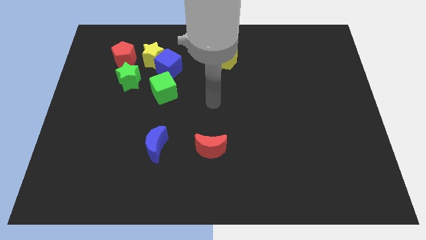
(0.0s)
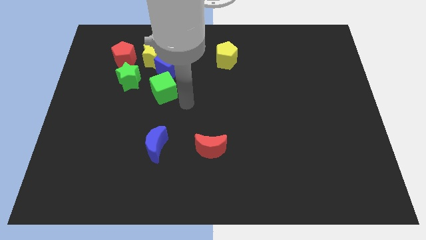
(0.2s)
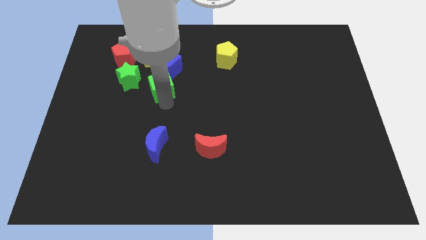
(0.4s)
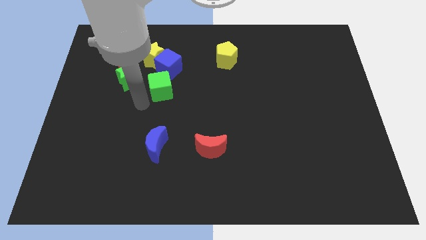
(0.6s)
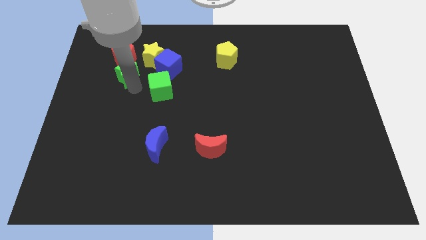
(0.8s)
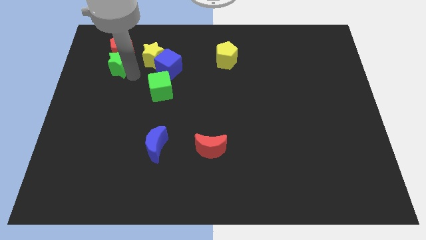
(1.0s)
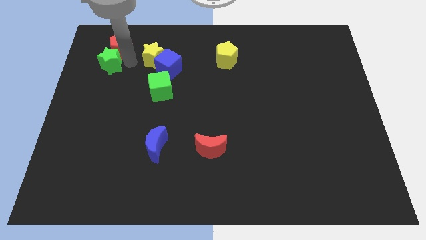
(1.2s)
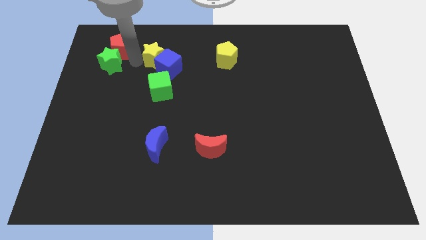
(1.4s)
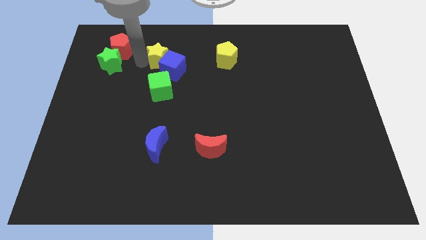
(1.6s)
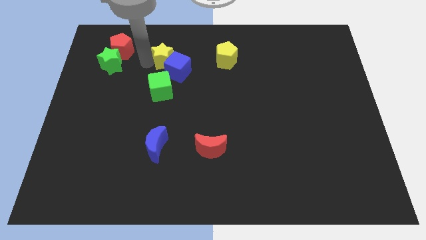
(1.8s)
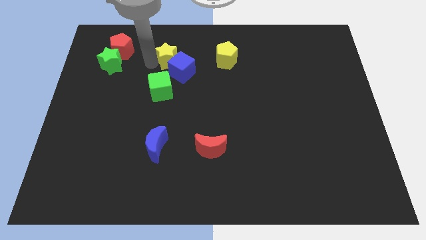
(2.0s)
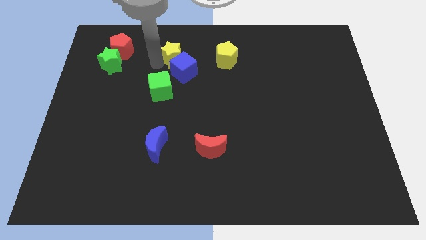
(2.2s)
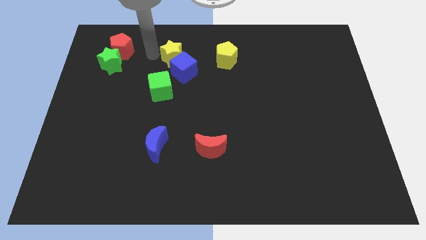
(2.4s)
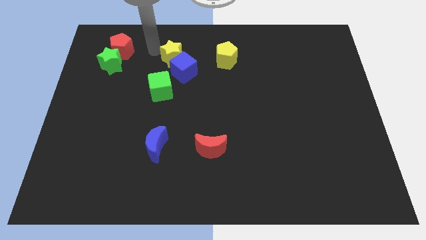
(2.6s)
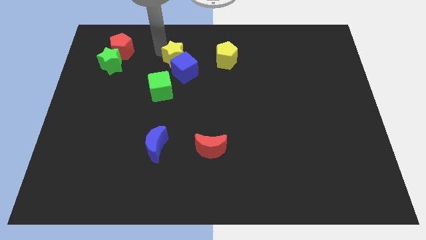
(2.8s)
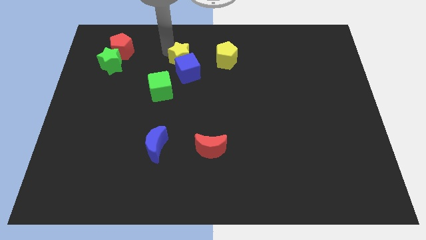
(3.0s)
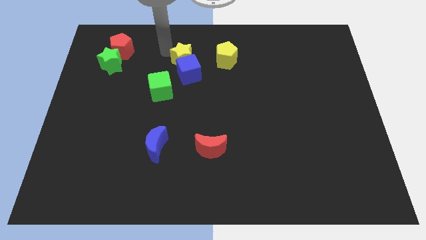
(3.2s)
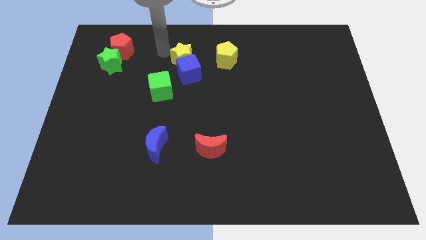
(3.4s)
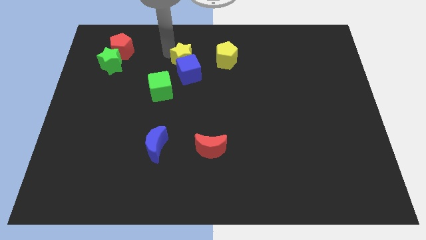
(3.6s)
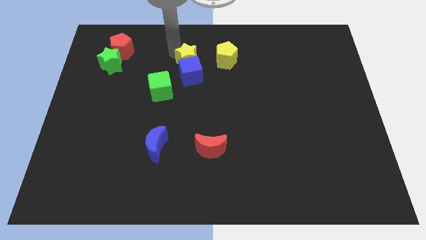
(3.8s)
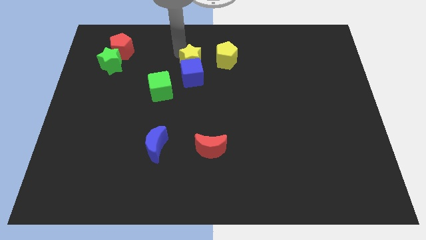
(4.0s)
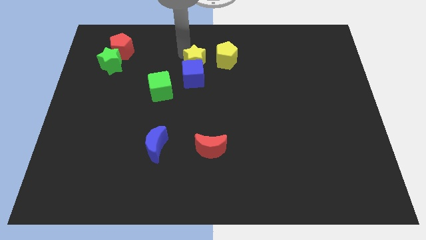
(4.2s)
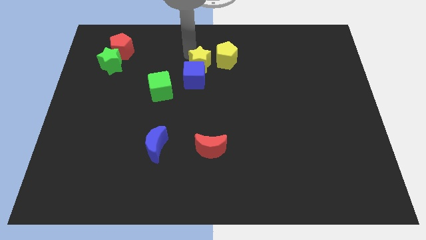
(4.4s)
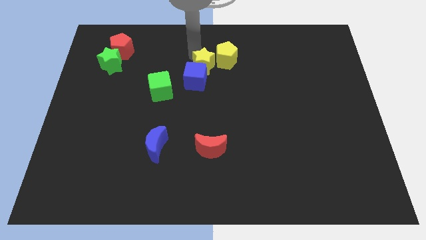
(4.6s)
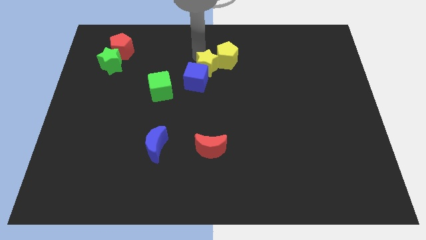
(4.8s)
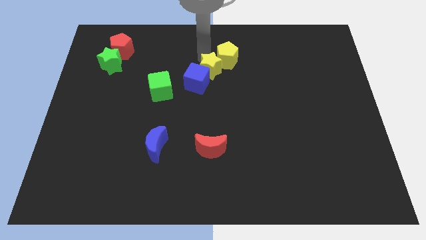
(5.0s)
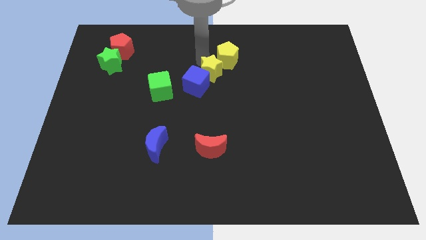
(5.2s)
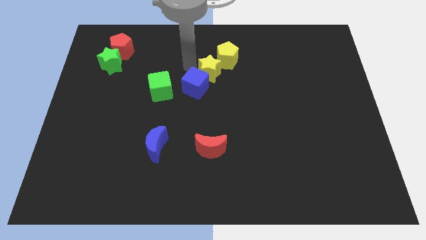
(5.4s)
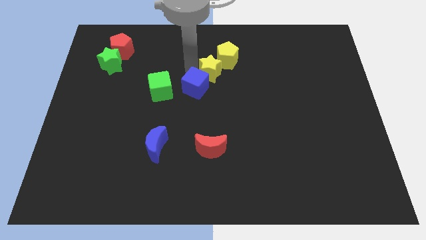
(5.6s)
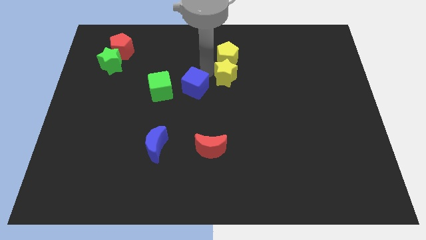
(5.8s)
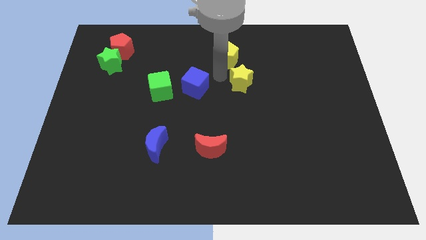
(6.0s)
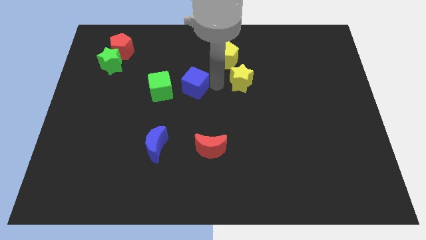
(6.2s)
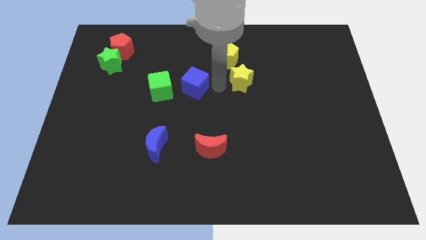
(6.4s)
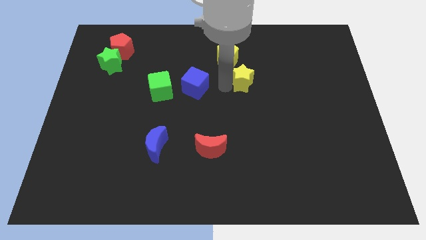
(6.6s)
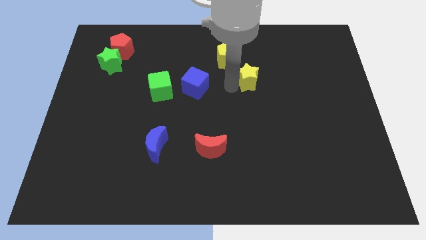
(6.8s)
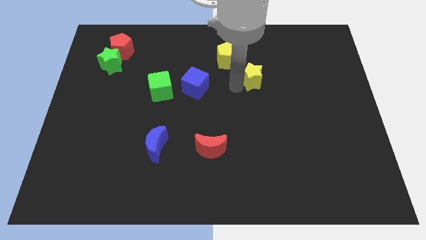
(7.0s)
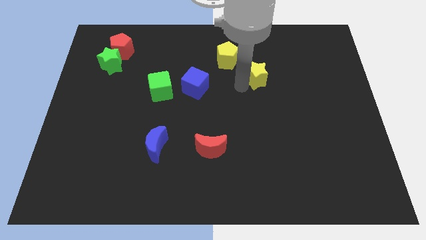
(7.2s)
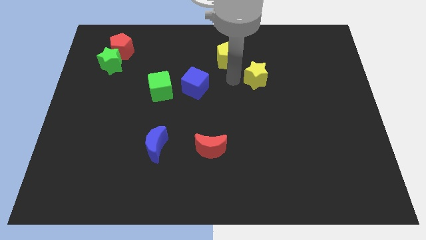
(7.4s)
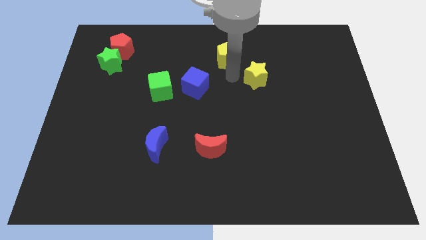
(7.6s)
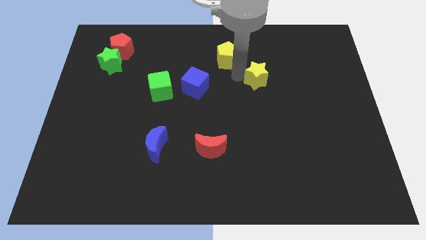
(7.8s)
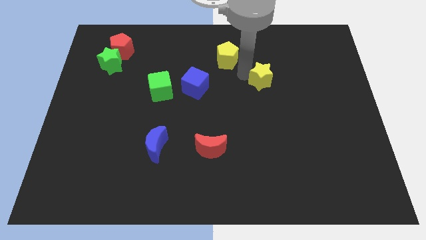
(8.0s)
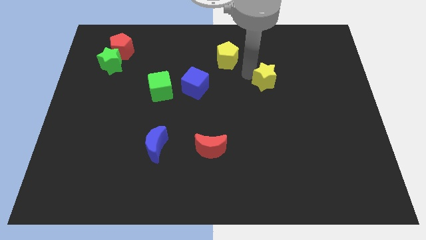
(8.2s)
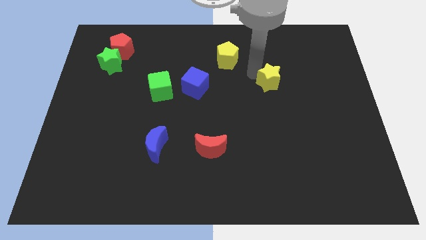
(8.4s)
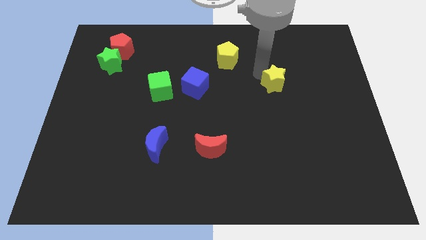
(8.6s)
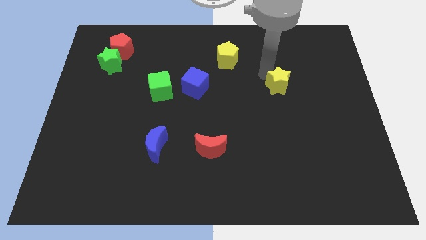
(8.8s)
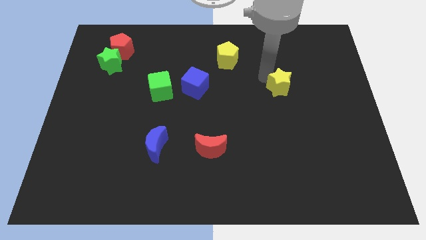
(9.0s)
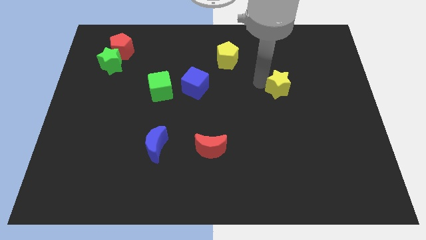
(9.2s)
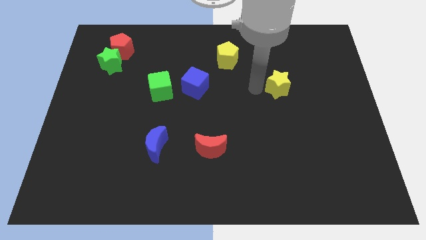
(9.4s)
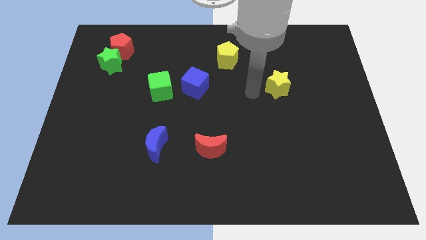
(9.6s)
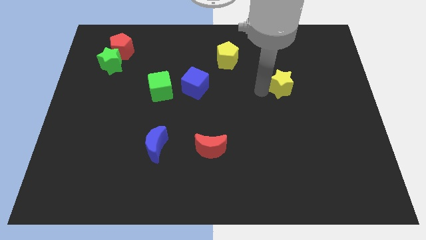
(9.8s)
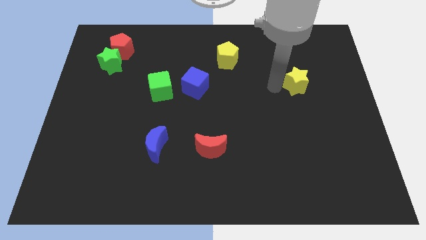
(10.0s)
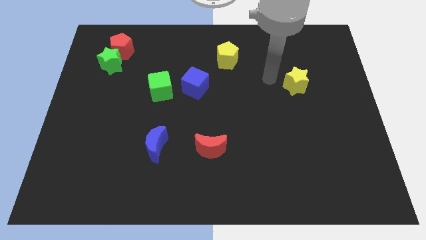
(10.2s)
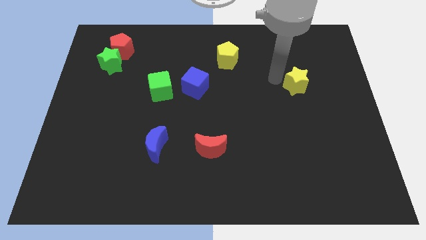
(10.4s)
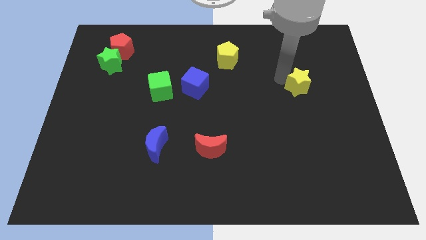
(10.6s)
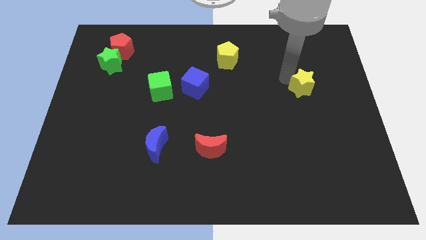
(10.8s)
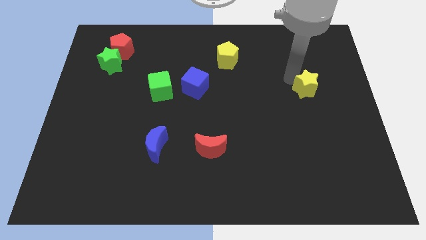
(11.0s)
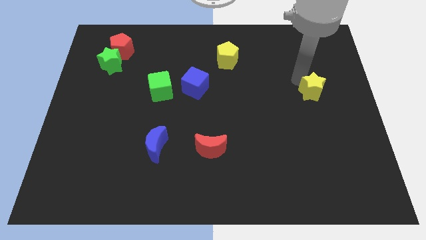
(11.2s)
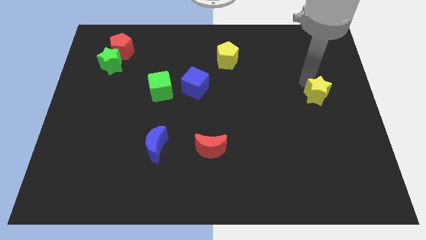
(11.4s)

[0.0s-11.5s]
push the yellow star to the right side

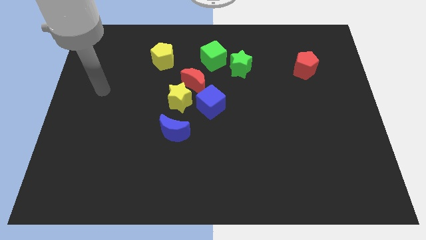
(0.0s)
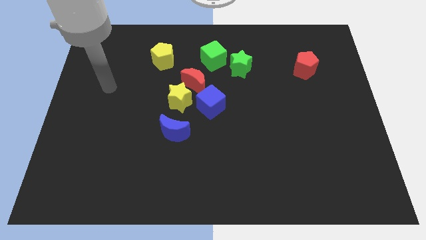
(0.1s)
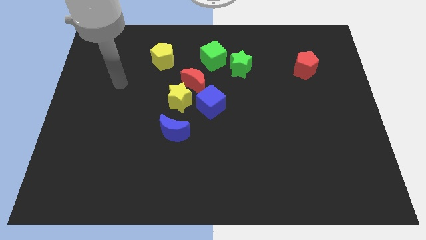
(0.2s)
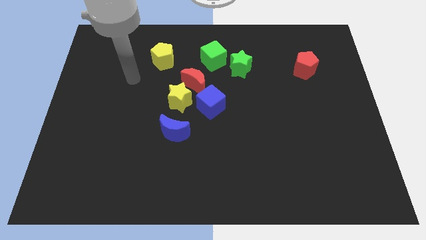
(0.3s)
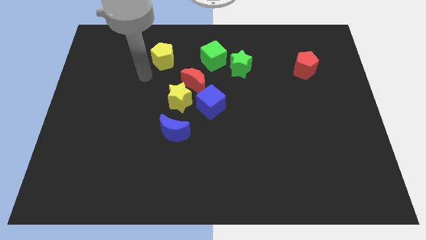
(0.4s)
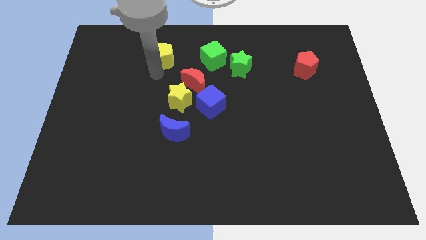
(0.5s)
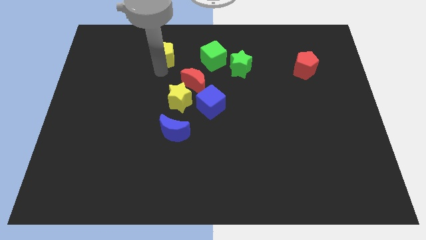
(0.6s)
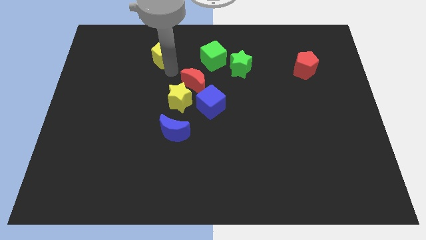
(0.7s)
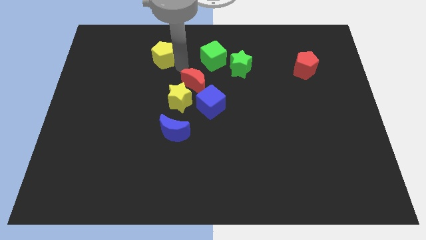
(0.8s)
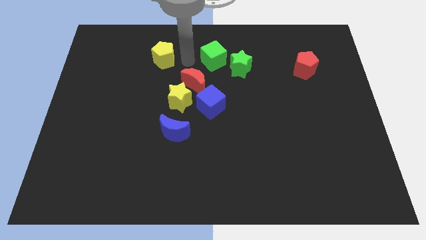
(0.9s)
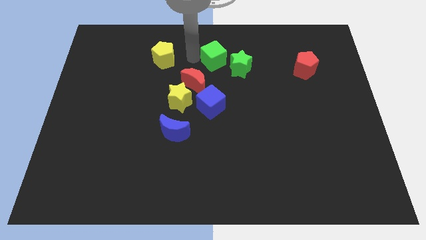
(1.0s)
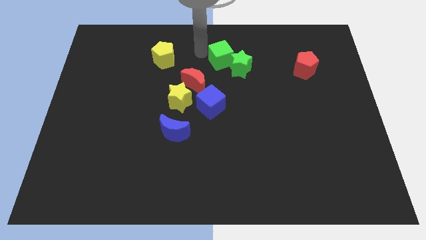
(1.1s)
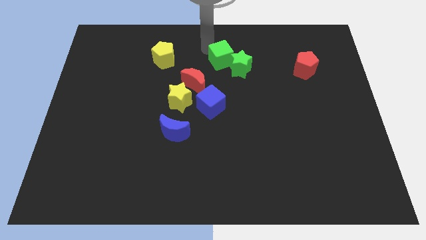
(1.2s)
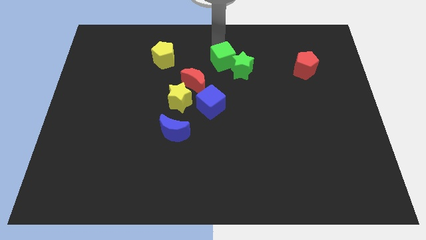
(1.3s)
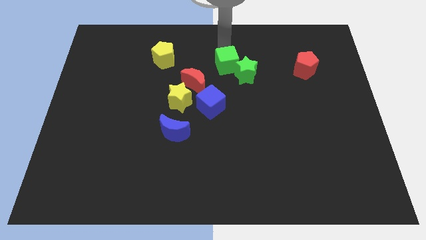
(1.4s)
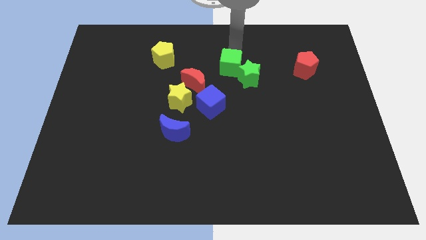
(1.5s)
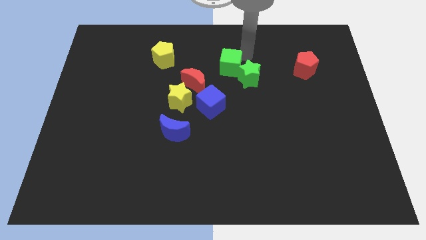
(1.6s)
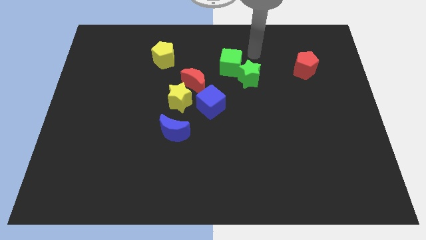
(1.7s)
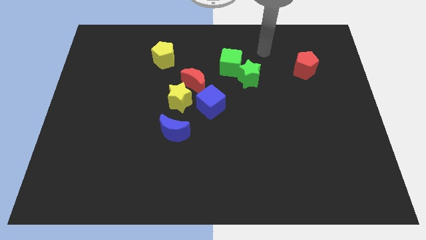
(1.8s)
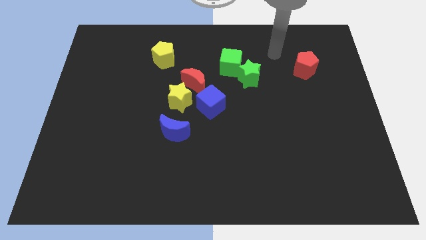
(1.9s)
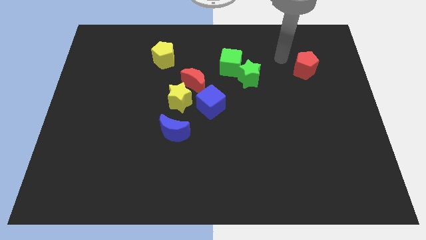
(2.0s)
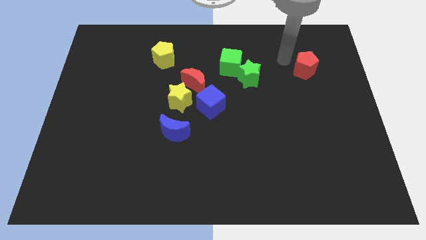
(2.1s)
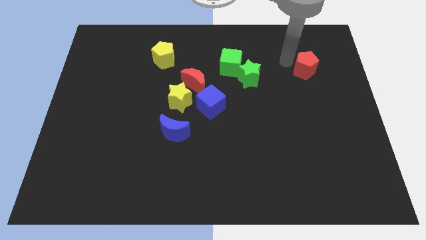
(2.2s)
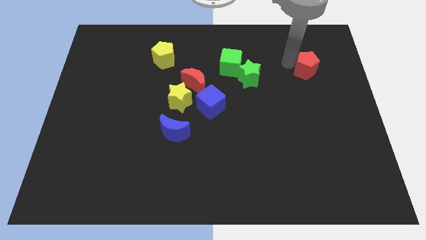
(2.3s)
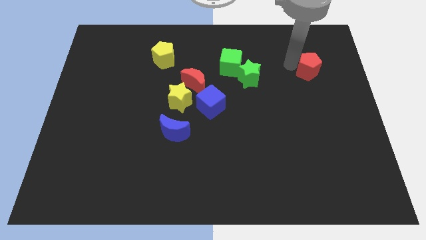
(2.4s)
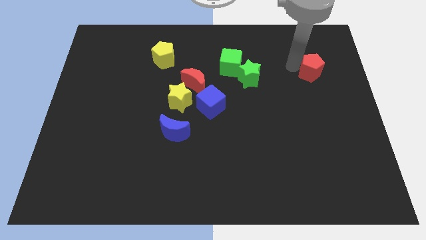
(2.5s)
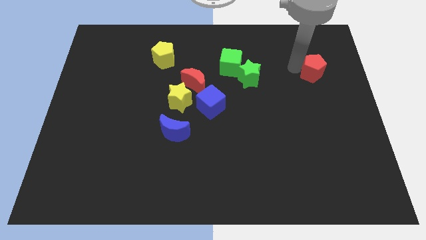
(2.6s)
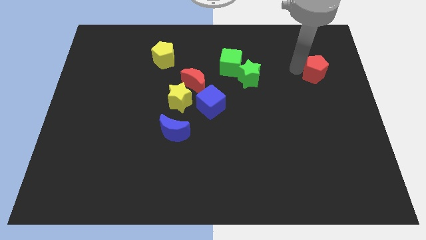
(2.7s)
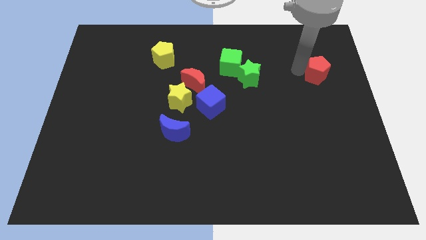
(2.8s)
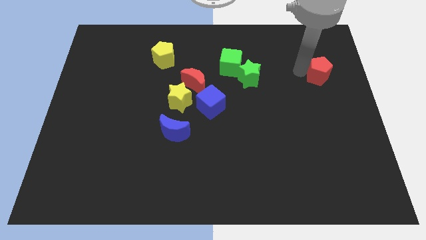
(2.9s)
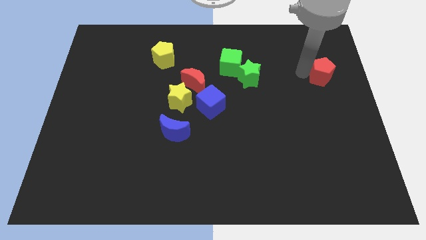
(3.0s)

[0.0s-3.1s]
move the red pentagon to the center right
